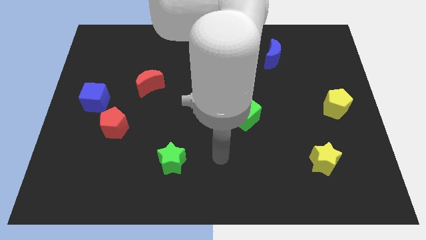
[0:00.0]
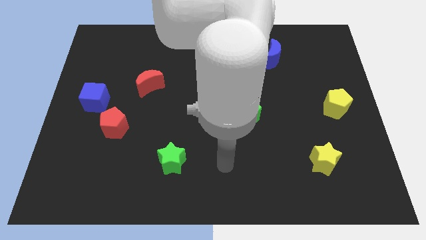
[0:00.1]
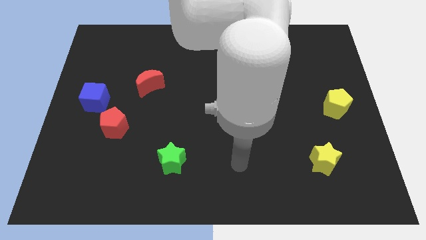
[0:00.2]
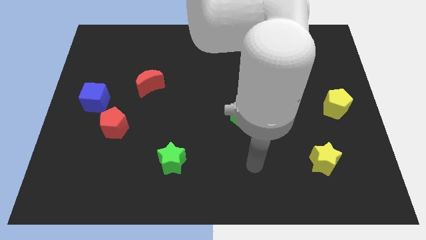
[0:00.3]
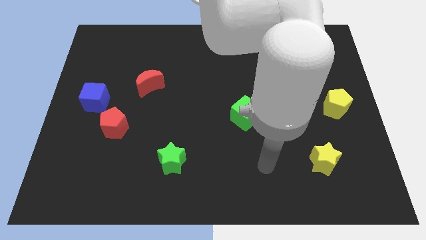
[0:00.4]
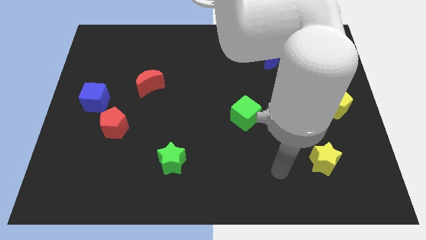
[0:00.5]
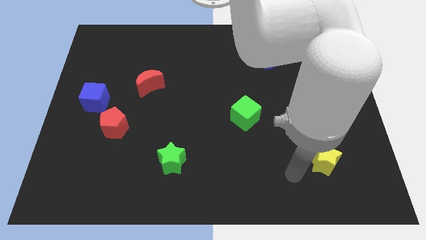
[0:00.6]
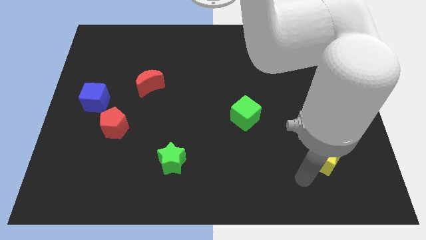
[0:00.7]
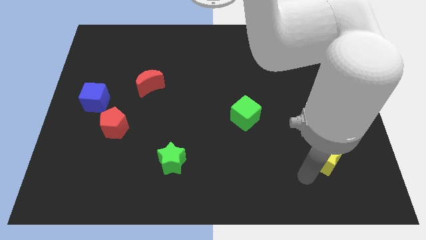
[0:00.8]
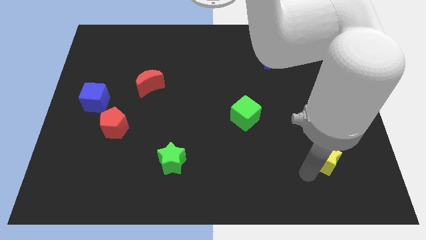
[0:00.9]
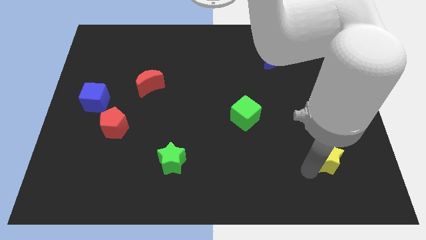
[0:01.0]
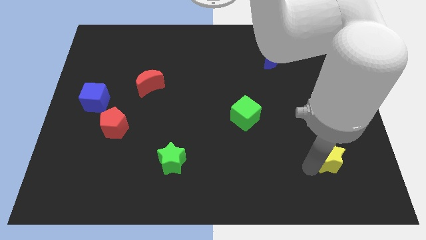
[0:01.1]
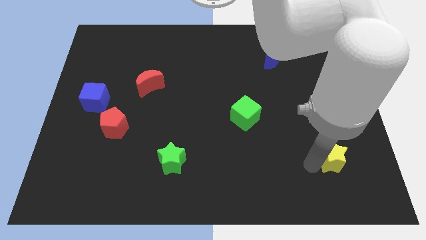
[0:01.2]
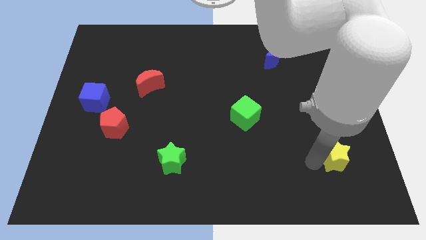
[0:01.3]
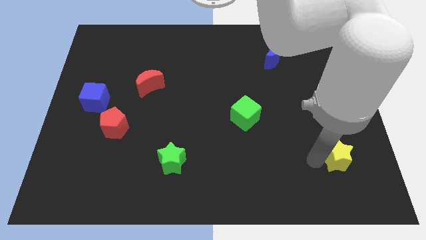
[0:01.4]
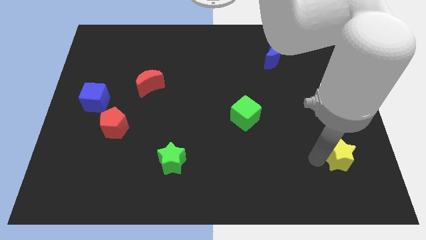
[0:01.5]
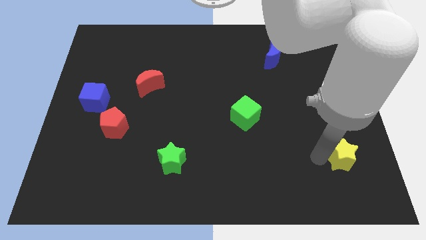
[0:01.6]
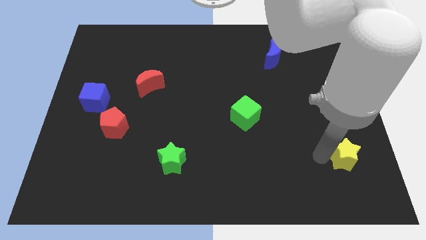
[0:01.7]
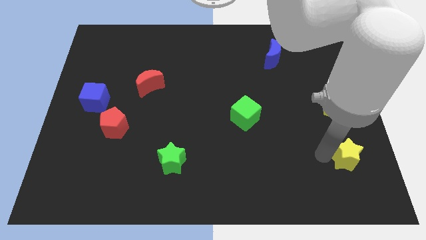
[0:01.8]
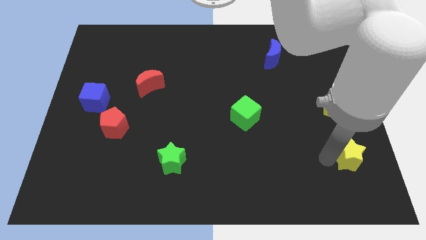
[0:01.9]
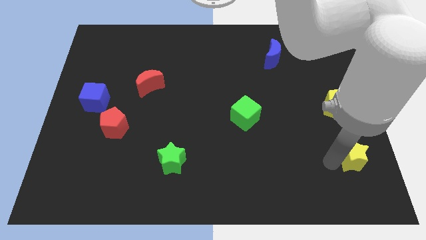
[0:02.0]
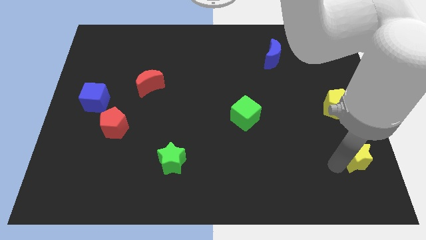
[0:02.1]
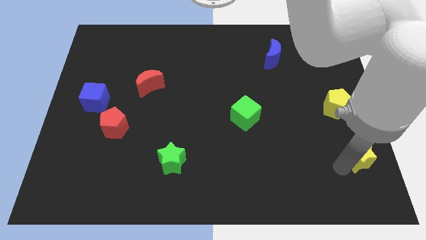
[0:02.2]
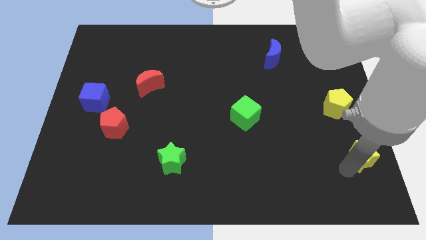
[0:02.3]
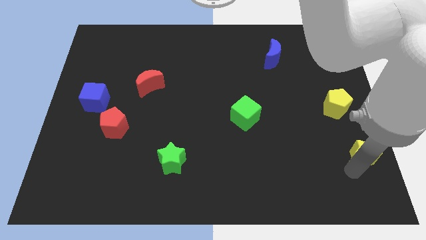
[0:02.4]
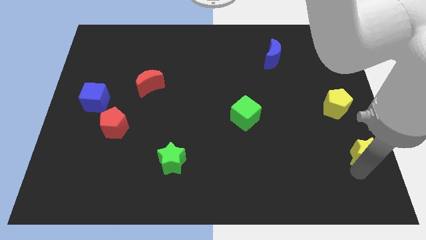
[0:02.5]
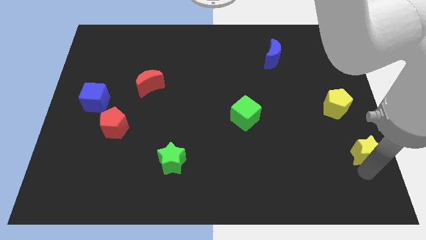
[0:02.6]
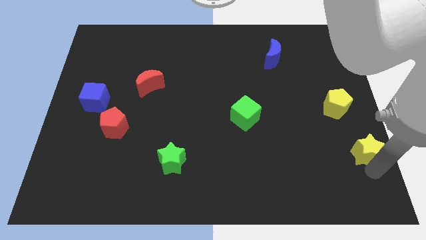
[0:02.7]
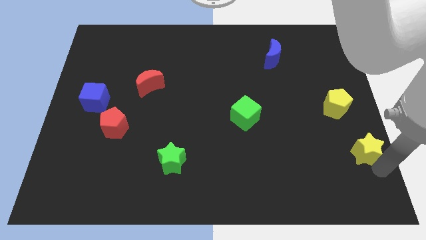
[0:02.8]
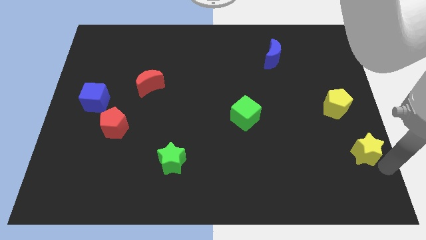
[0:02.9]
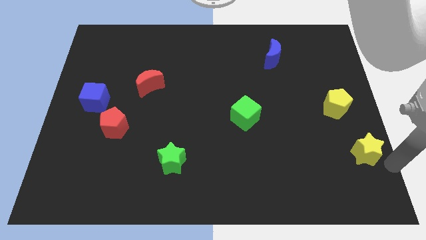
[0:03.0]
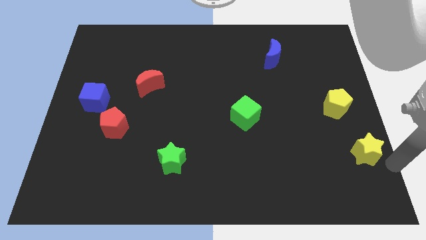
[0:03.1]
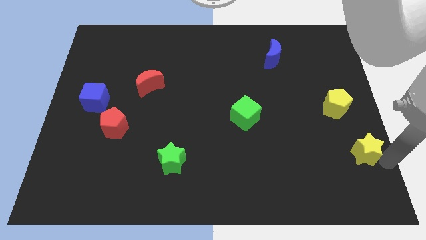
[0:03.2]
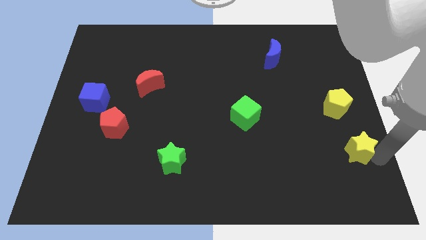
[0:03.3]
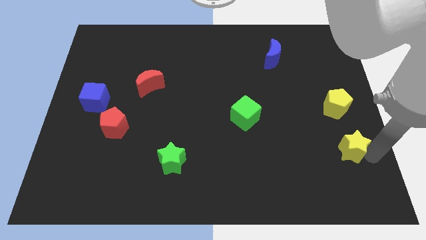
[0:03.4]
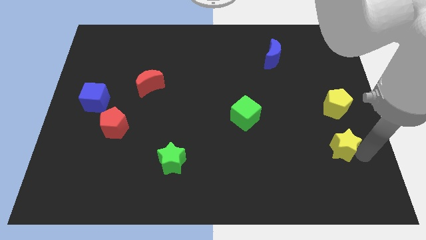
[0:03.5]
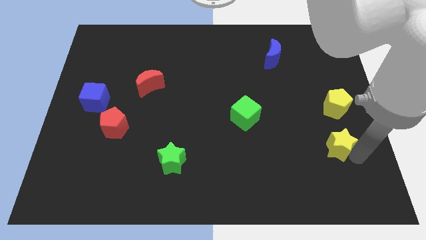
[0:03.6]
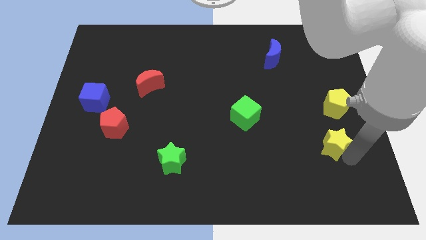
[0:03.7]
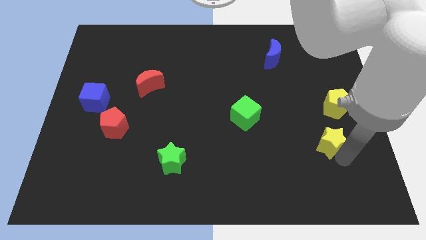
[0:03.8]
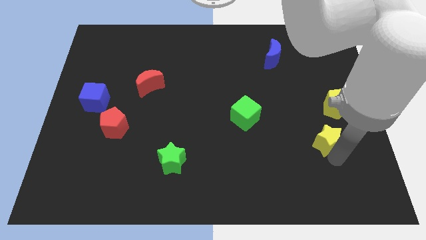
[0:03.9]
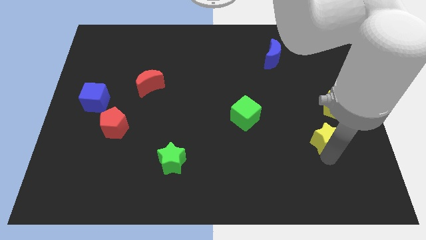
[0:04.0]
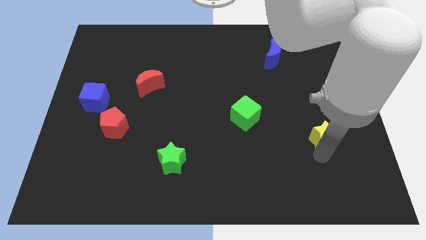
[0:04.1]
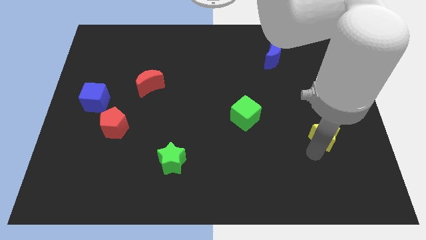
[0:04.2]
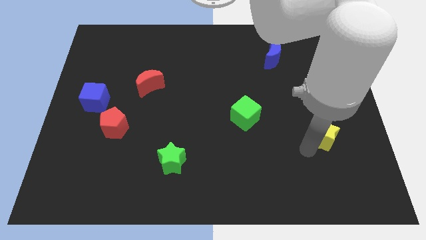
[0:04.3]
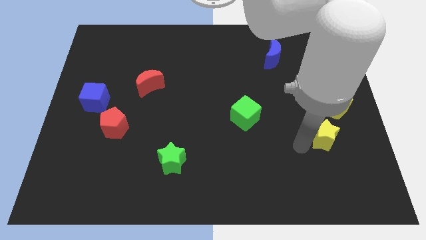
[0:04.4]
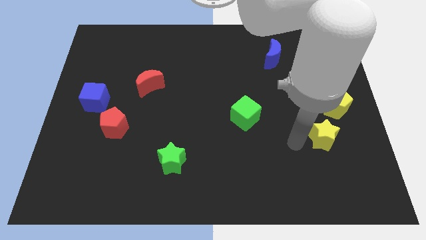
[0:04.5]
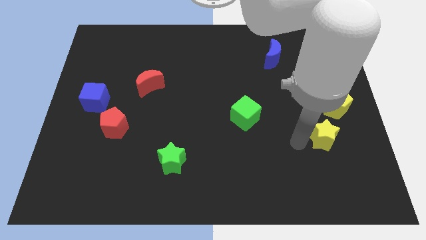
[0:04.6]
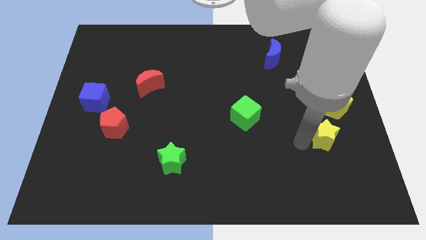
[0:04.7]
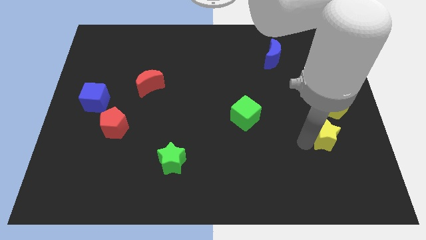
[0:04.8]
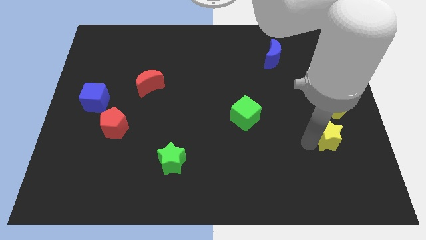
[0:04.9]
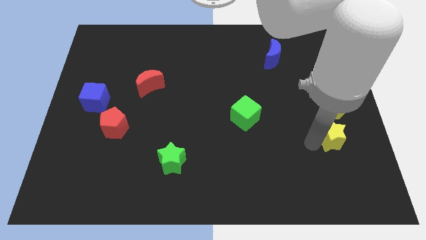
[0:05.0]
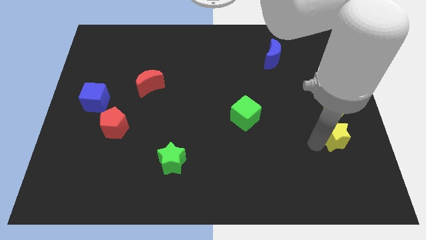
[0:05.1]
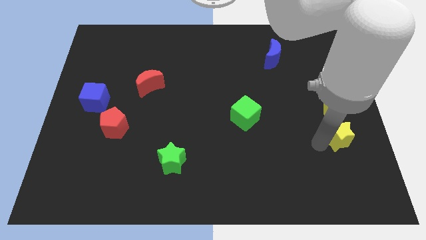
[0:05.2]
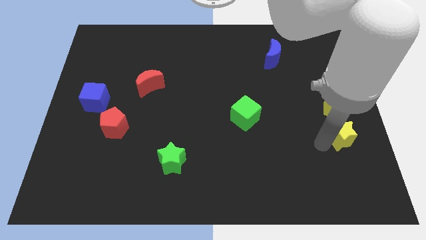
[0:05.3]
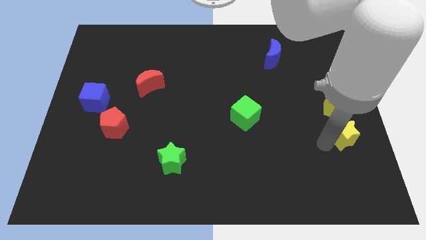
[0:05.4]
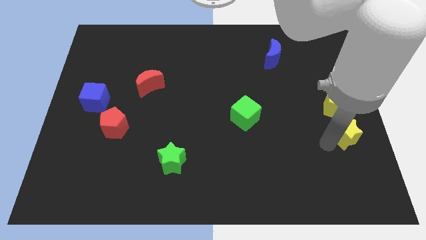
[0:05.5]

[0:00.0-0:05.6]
move the yellow star to the right side of the board

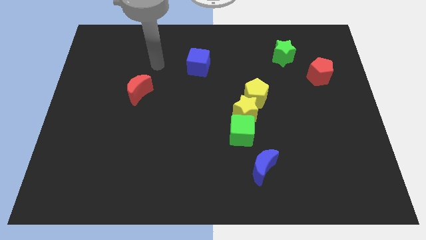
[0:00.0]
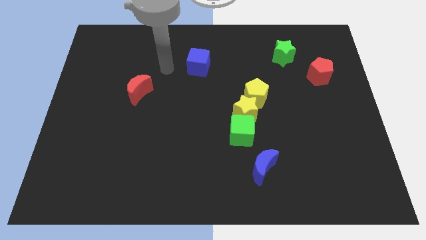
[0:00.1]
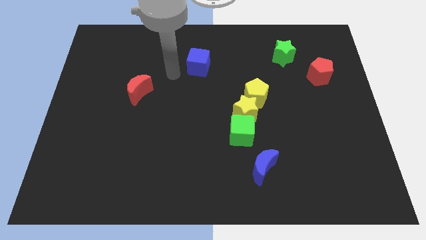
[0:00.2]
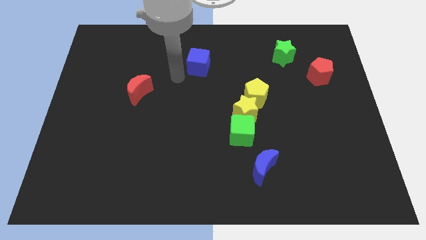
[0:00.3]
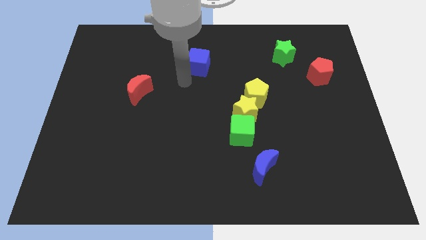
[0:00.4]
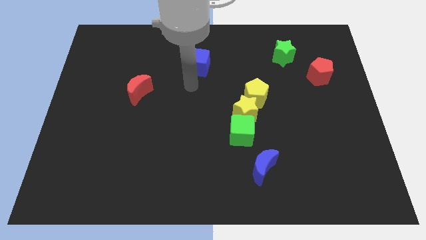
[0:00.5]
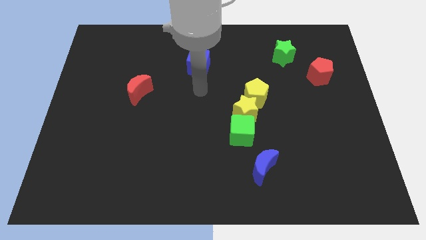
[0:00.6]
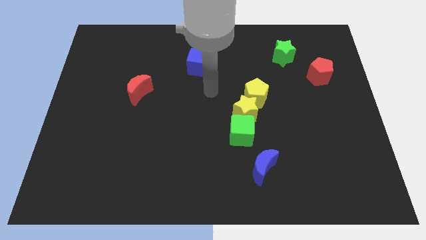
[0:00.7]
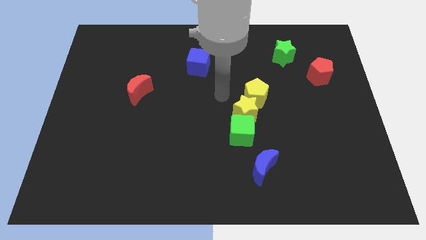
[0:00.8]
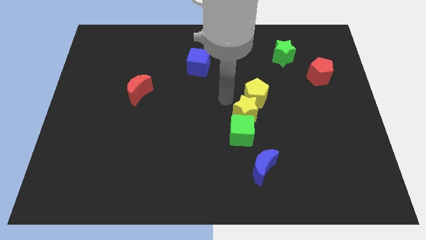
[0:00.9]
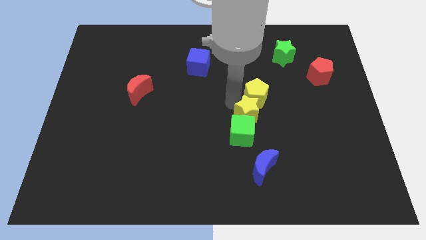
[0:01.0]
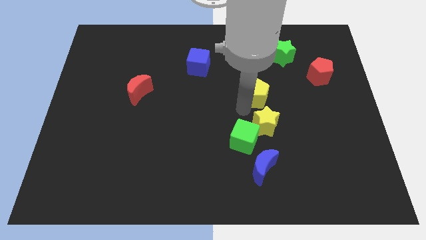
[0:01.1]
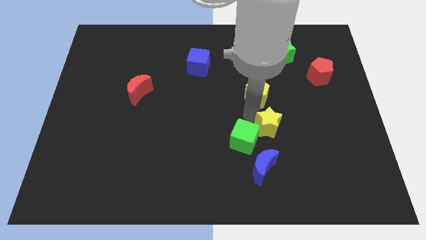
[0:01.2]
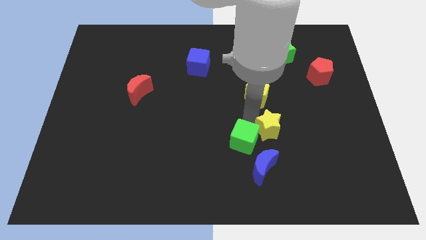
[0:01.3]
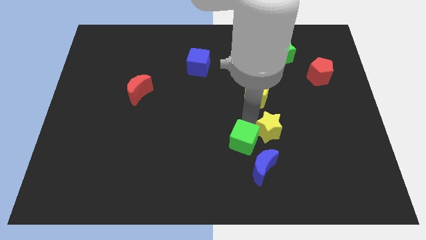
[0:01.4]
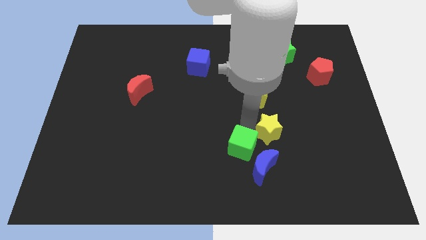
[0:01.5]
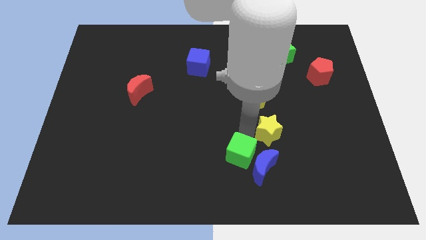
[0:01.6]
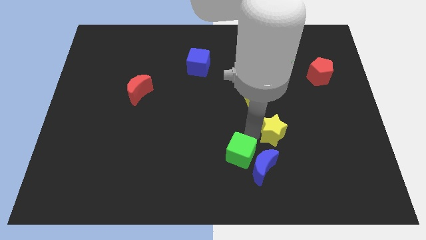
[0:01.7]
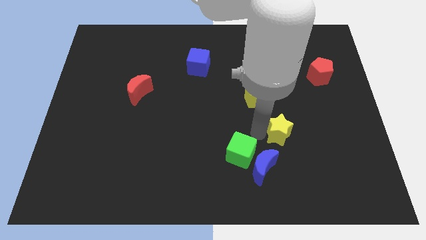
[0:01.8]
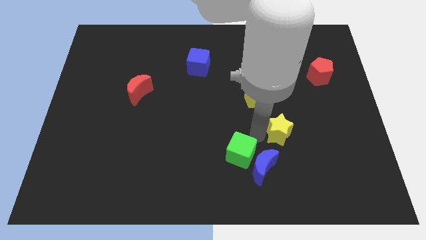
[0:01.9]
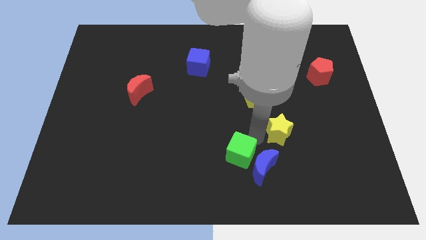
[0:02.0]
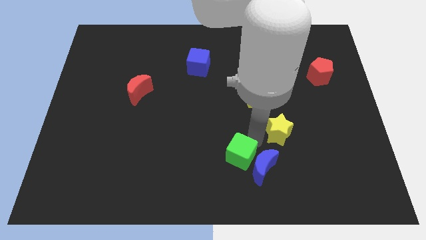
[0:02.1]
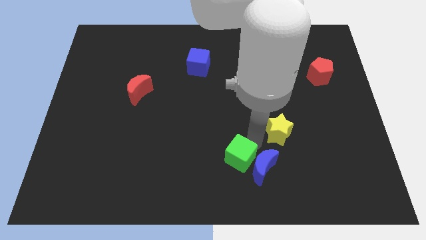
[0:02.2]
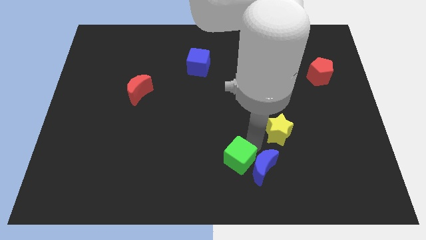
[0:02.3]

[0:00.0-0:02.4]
slide the green cube to the bottom

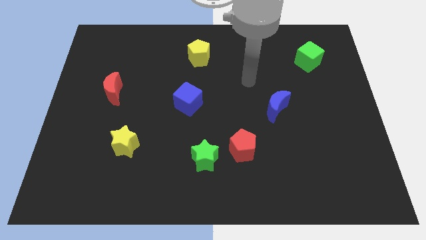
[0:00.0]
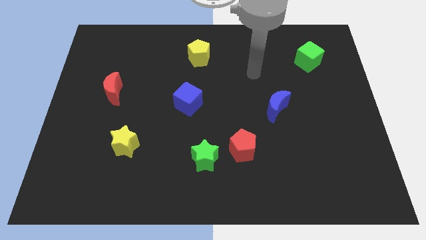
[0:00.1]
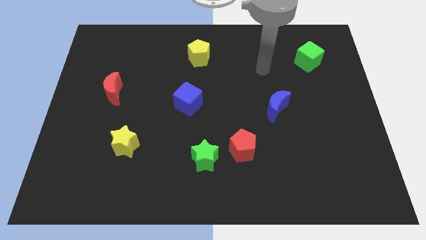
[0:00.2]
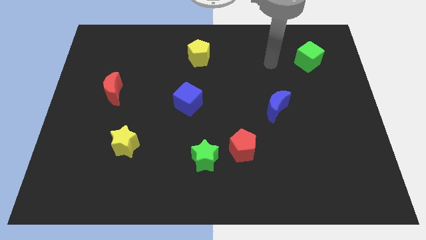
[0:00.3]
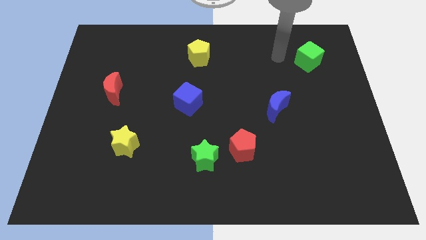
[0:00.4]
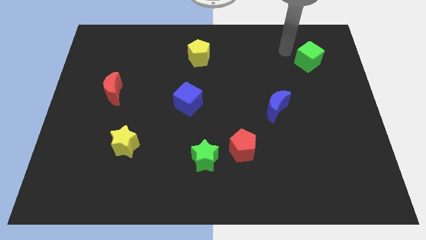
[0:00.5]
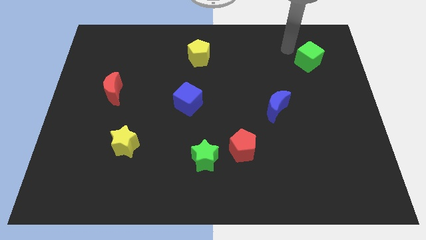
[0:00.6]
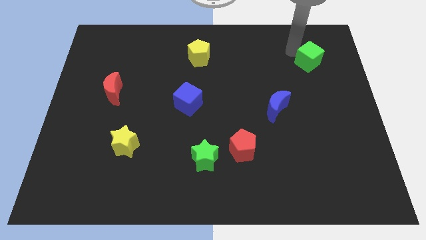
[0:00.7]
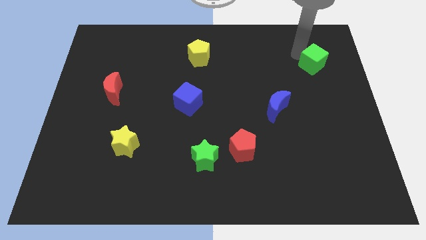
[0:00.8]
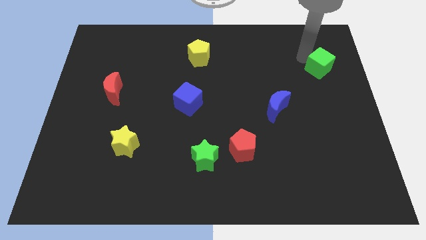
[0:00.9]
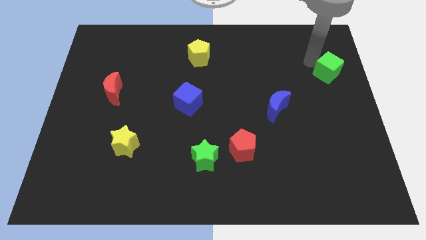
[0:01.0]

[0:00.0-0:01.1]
slide the green cube to the right side of the board
